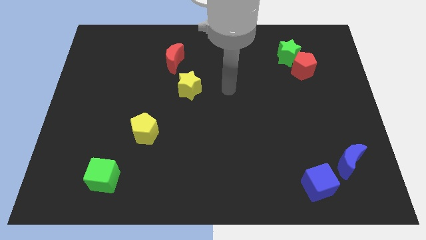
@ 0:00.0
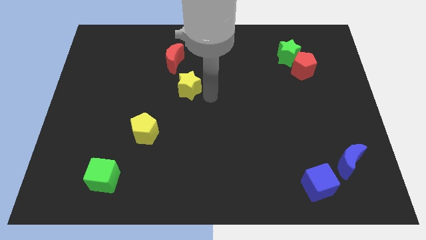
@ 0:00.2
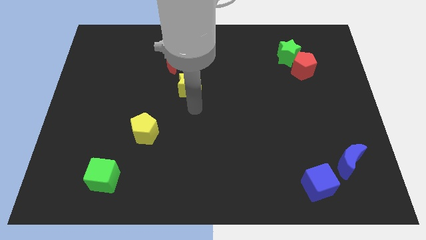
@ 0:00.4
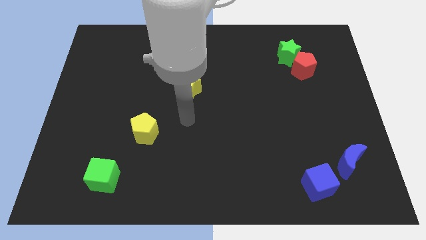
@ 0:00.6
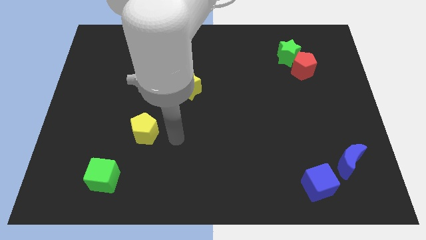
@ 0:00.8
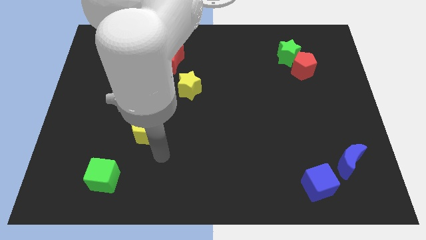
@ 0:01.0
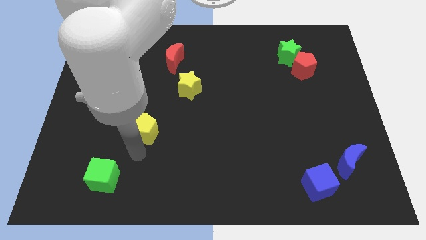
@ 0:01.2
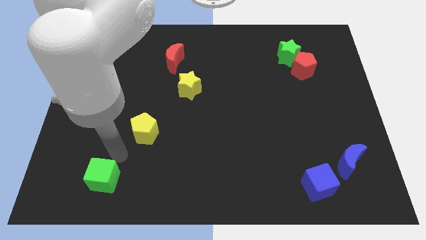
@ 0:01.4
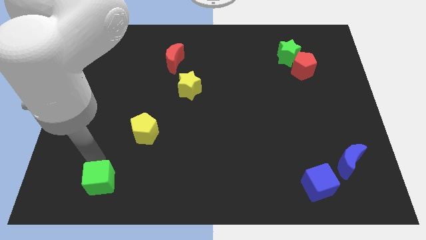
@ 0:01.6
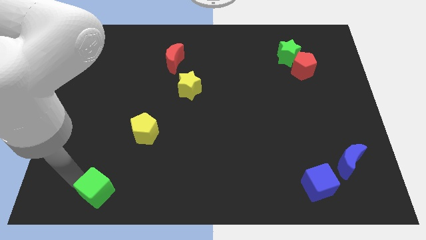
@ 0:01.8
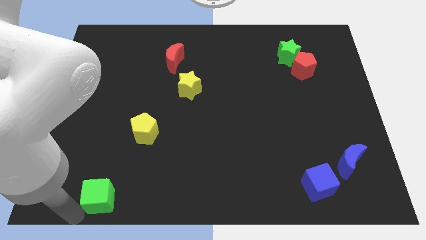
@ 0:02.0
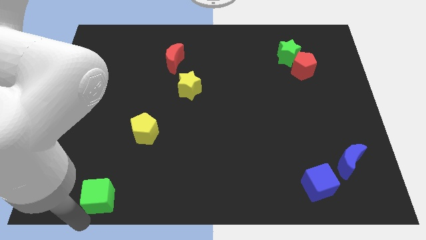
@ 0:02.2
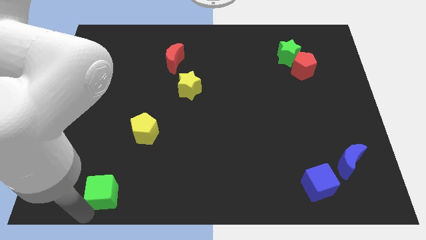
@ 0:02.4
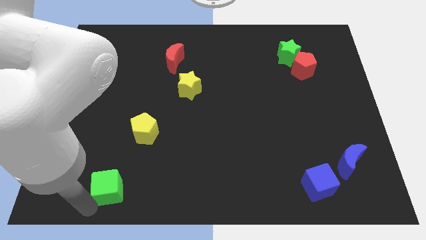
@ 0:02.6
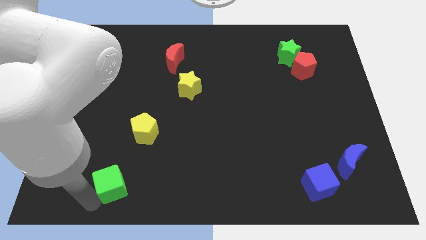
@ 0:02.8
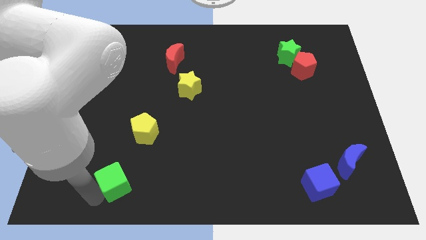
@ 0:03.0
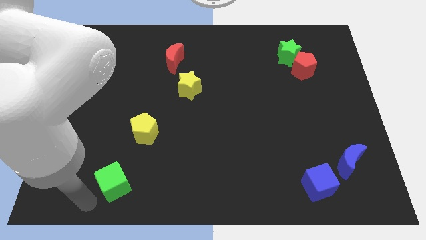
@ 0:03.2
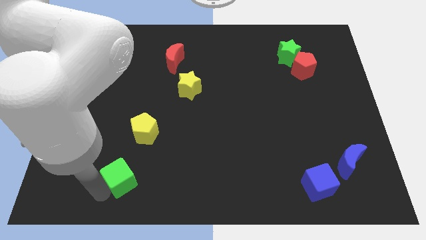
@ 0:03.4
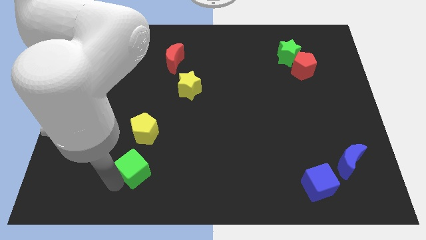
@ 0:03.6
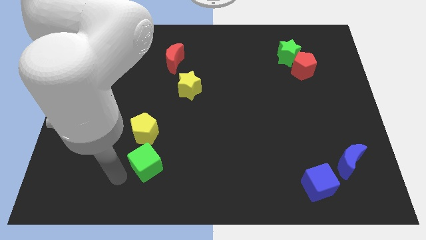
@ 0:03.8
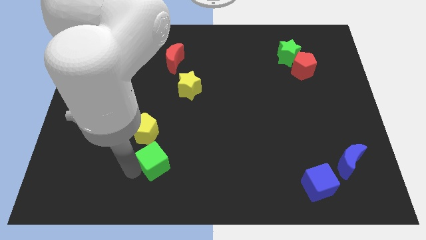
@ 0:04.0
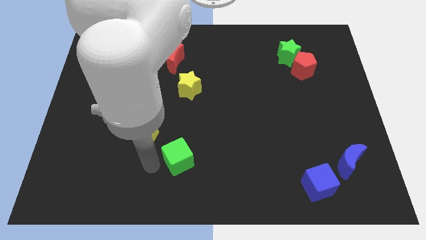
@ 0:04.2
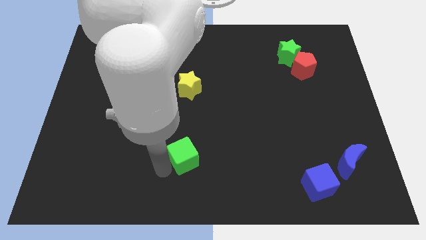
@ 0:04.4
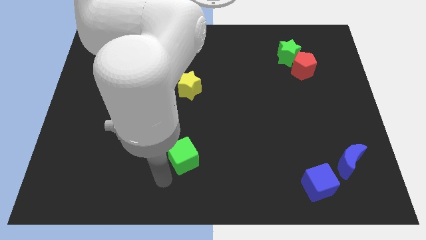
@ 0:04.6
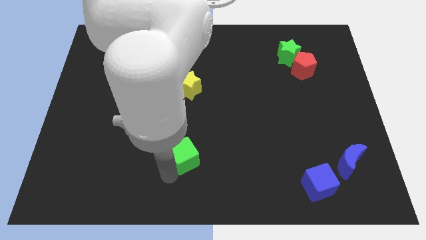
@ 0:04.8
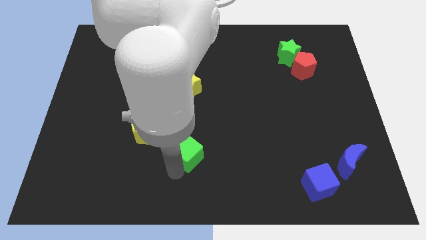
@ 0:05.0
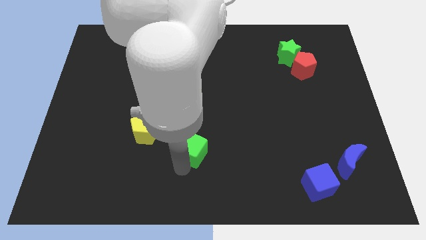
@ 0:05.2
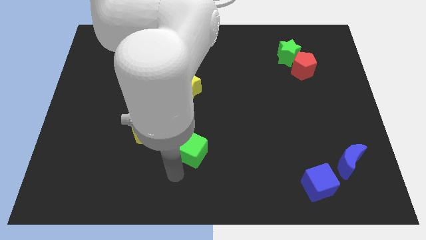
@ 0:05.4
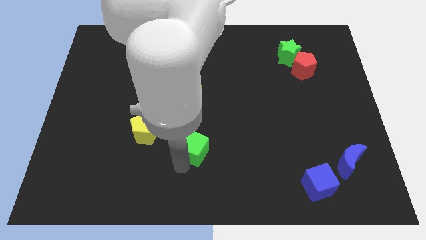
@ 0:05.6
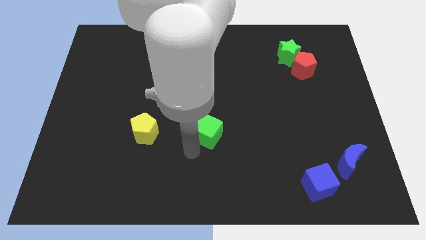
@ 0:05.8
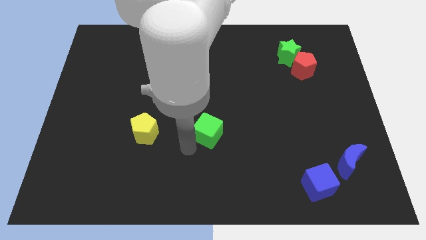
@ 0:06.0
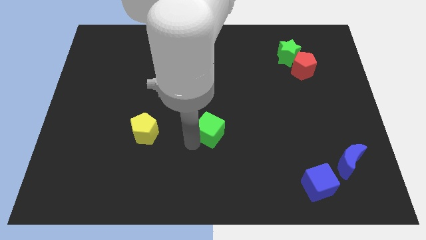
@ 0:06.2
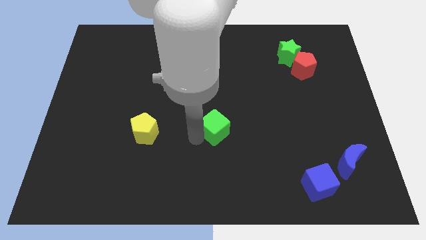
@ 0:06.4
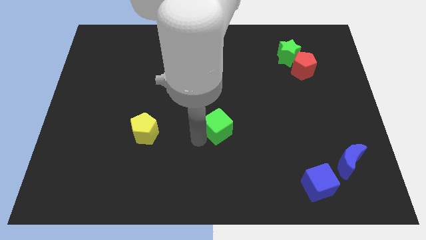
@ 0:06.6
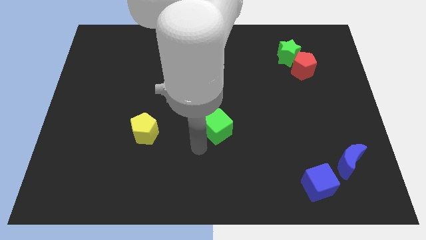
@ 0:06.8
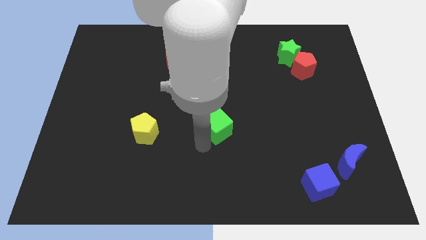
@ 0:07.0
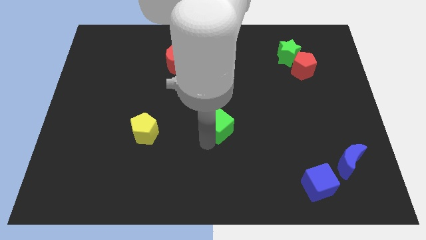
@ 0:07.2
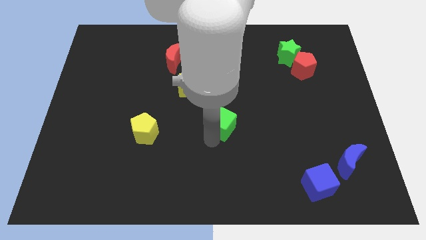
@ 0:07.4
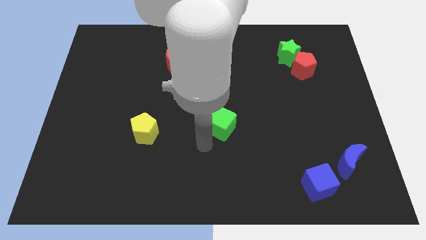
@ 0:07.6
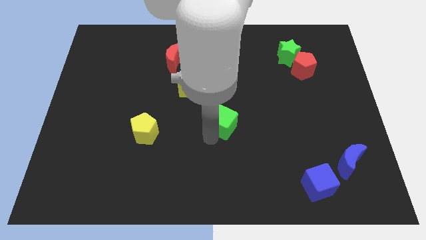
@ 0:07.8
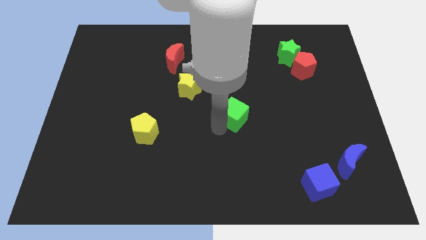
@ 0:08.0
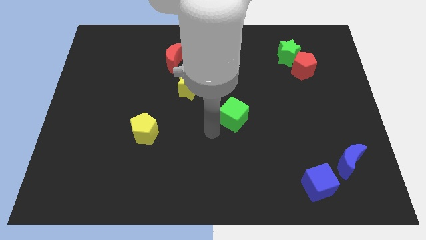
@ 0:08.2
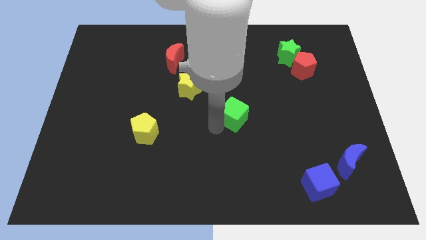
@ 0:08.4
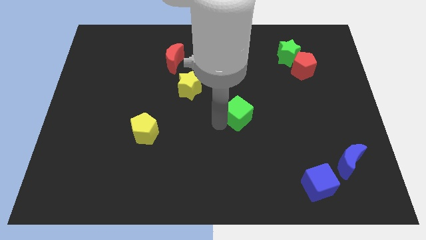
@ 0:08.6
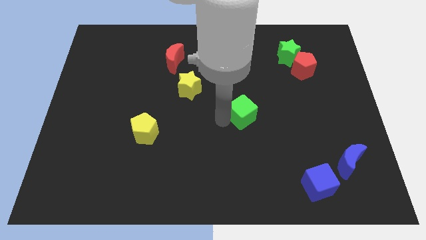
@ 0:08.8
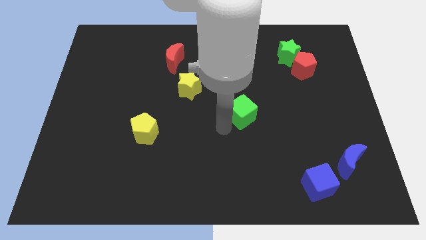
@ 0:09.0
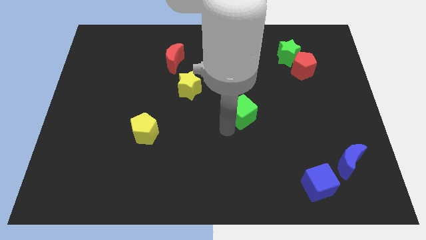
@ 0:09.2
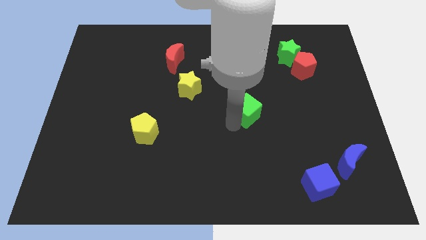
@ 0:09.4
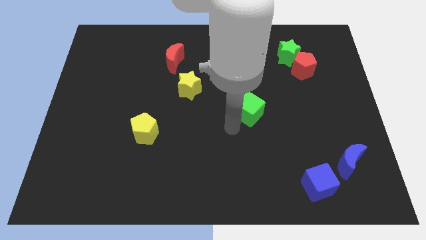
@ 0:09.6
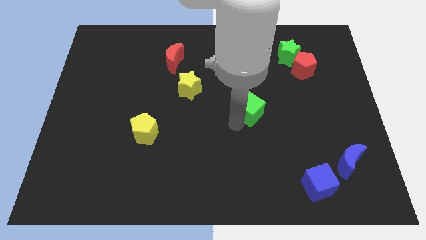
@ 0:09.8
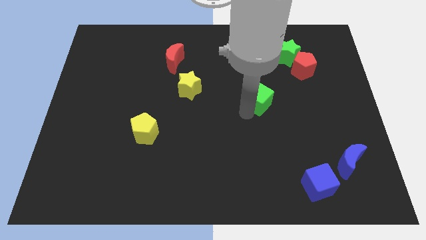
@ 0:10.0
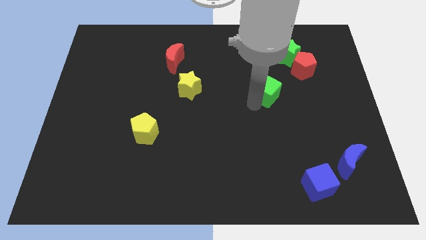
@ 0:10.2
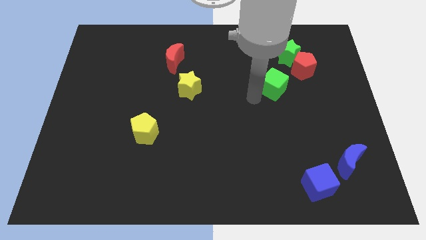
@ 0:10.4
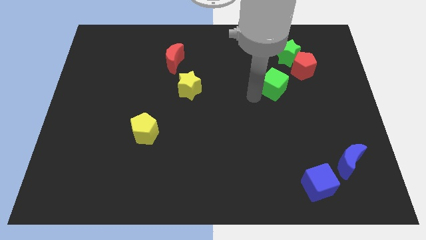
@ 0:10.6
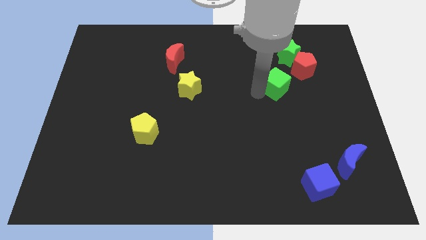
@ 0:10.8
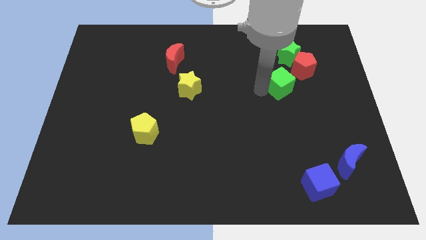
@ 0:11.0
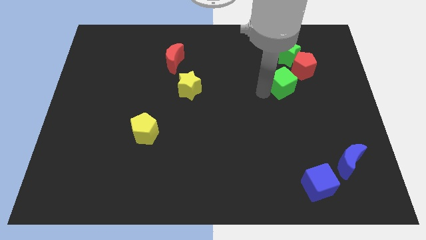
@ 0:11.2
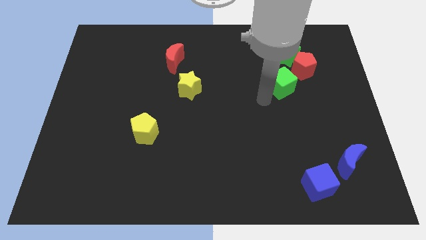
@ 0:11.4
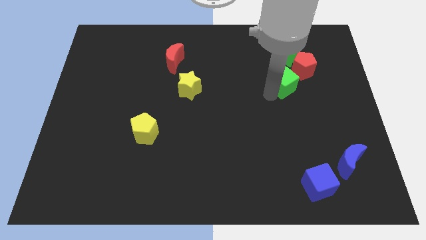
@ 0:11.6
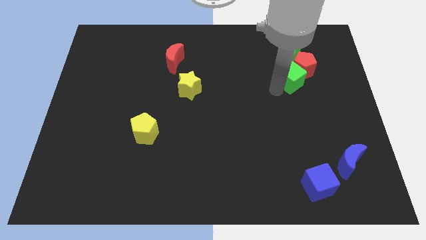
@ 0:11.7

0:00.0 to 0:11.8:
push the green cube next to the red pentagon

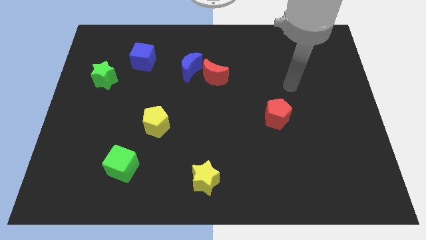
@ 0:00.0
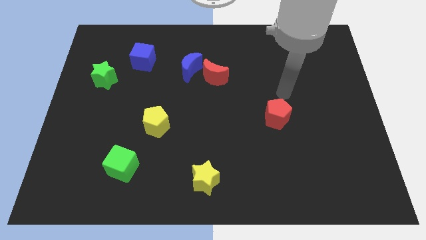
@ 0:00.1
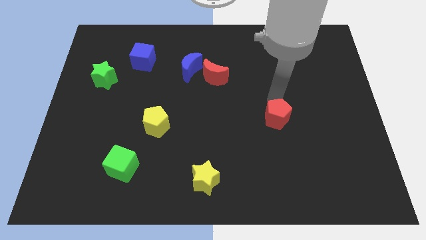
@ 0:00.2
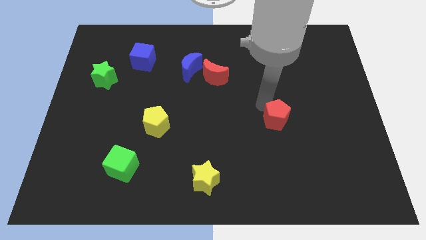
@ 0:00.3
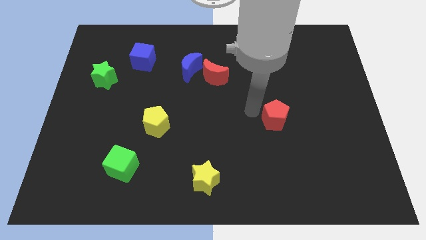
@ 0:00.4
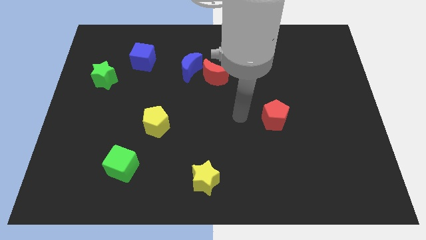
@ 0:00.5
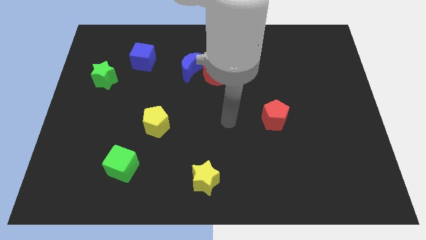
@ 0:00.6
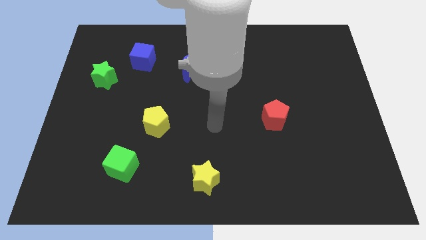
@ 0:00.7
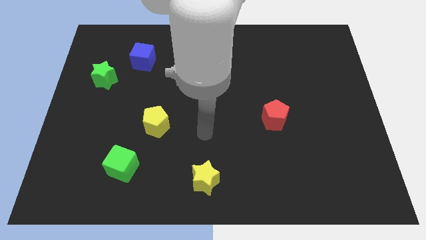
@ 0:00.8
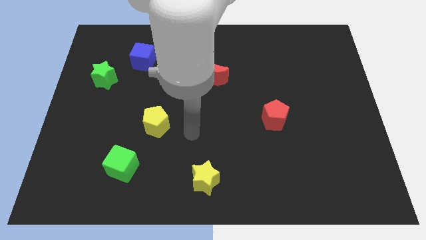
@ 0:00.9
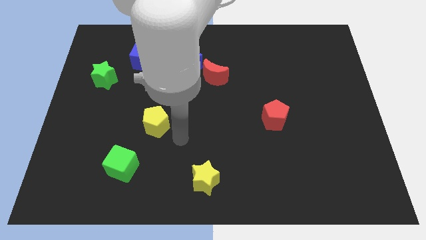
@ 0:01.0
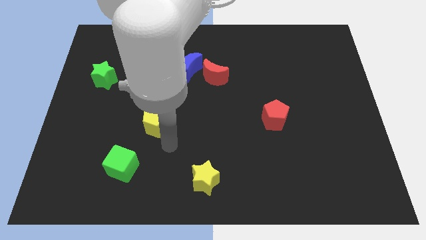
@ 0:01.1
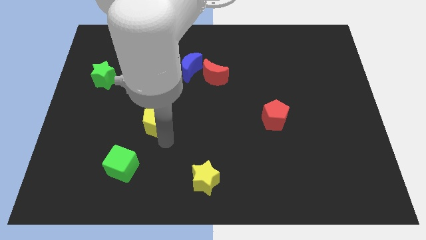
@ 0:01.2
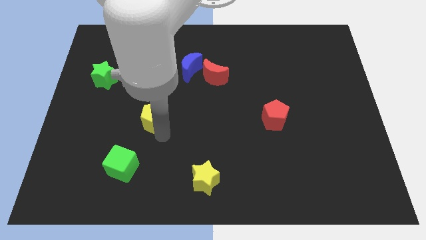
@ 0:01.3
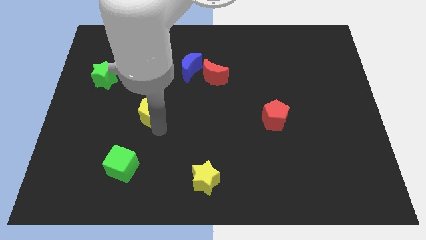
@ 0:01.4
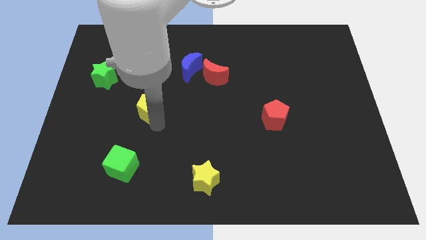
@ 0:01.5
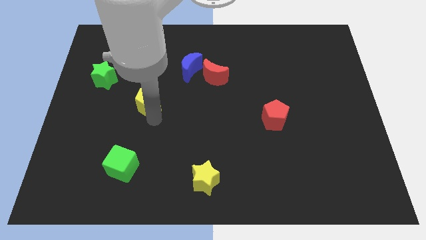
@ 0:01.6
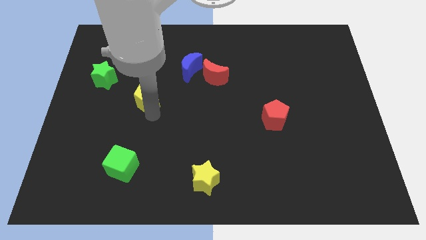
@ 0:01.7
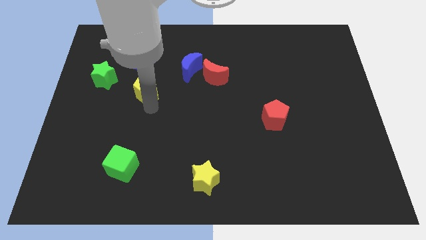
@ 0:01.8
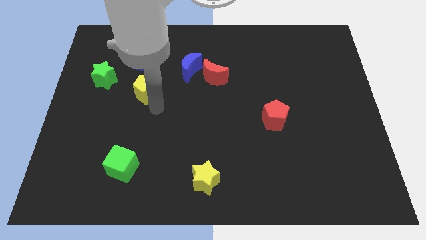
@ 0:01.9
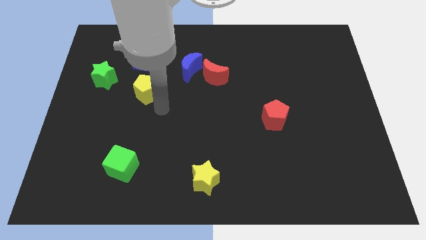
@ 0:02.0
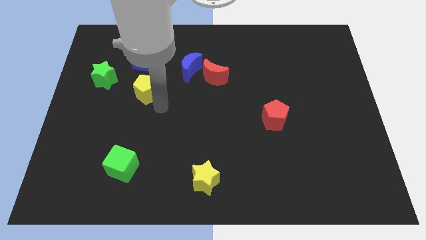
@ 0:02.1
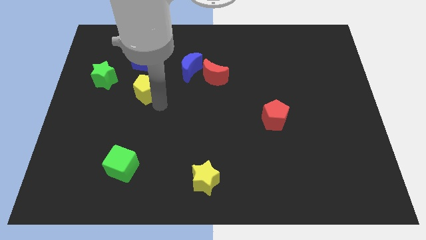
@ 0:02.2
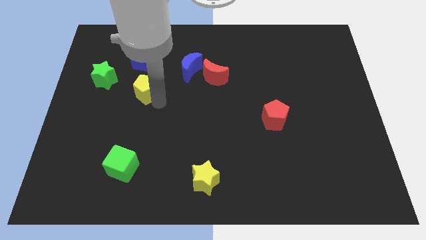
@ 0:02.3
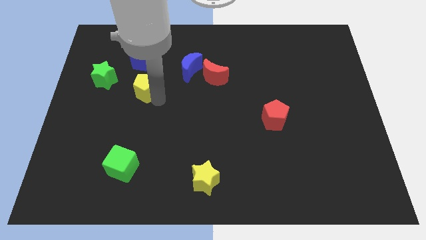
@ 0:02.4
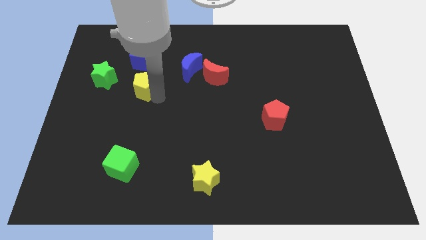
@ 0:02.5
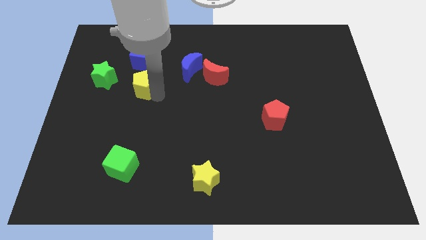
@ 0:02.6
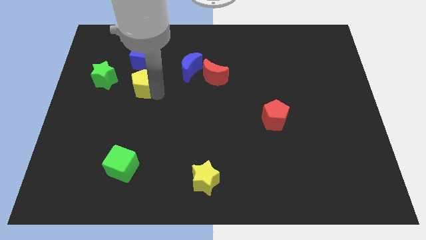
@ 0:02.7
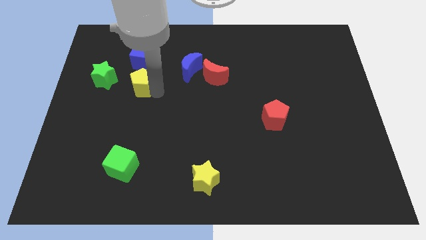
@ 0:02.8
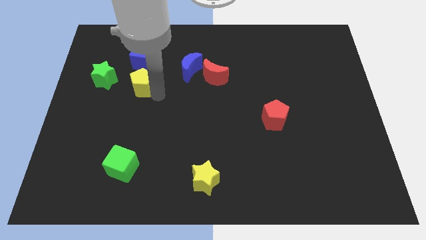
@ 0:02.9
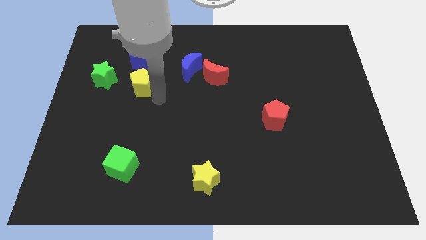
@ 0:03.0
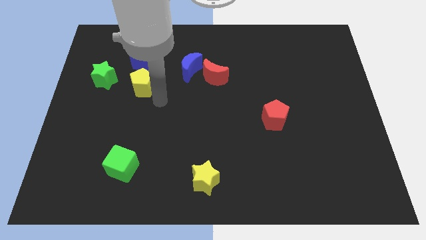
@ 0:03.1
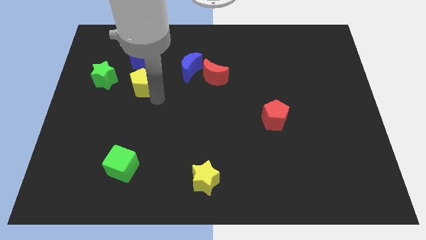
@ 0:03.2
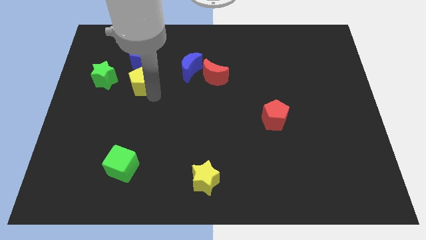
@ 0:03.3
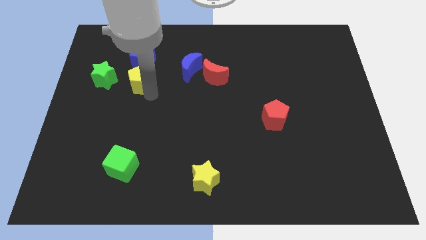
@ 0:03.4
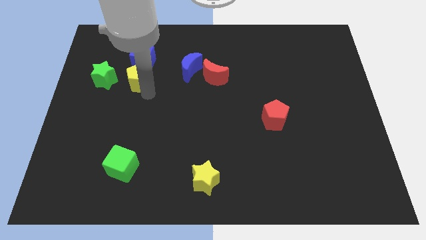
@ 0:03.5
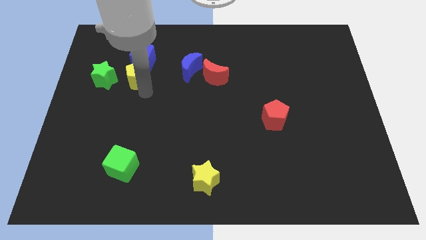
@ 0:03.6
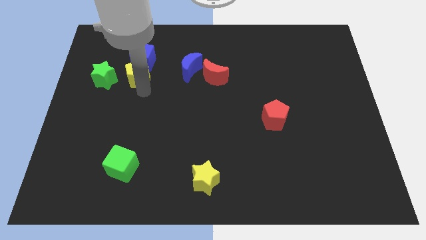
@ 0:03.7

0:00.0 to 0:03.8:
move the yellow pentagon close to the blue cube
